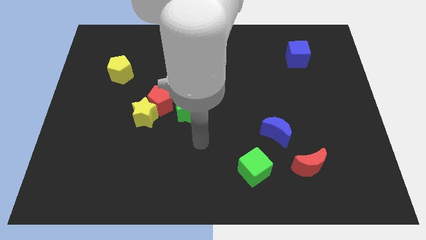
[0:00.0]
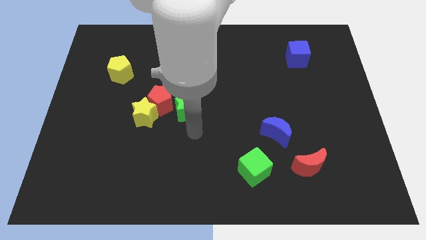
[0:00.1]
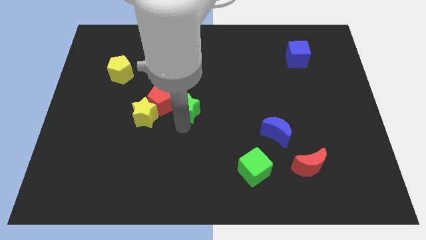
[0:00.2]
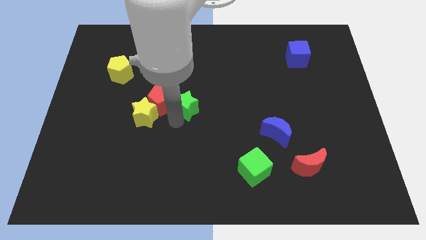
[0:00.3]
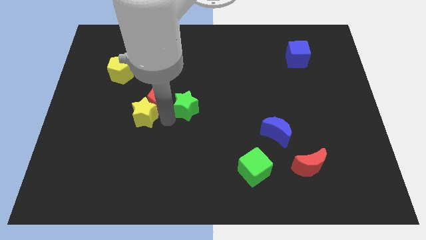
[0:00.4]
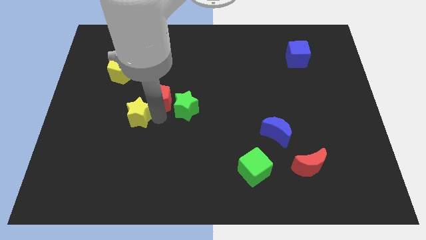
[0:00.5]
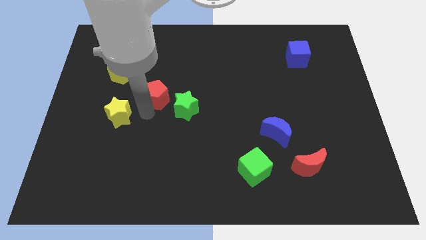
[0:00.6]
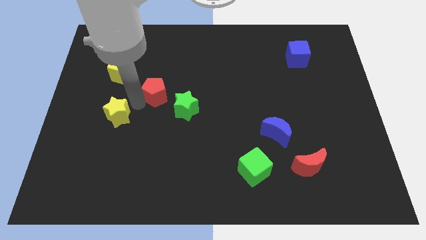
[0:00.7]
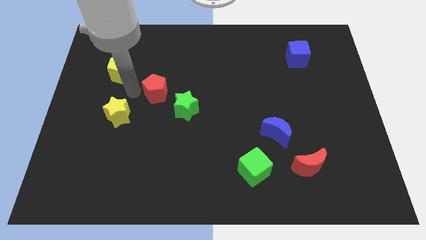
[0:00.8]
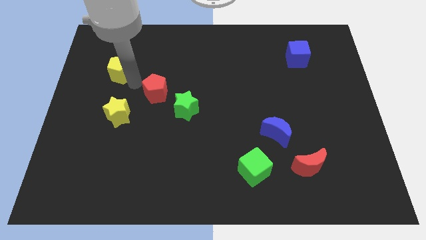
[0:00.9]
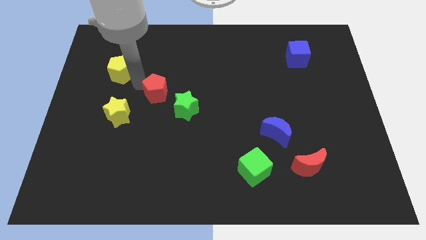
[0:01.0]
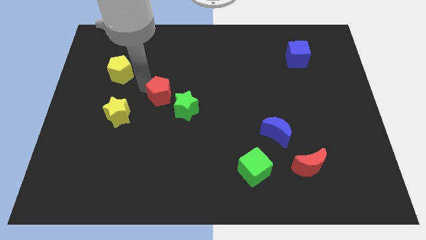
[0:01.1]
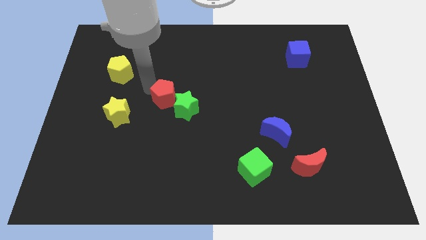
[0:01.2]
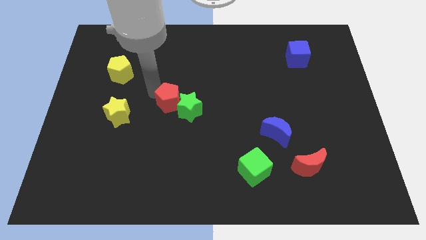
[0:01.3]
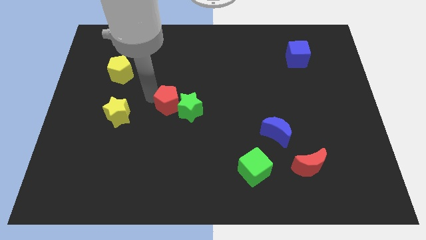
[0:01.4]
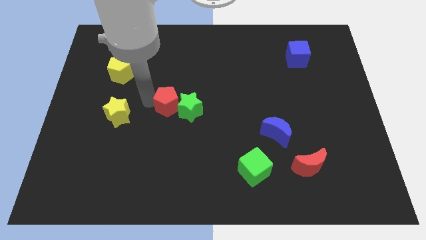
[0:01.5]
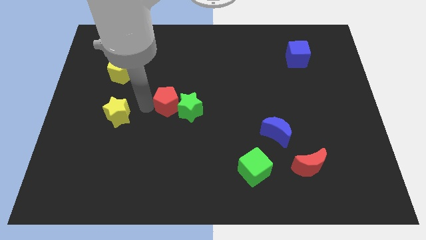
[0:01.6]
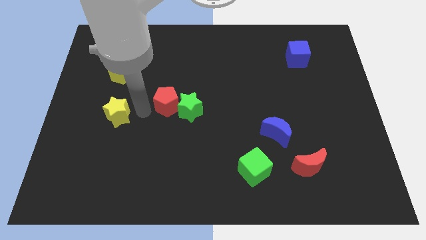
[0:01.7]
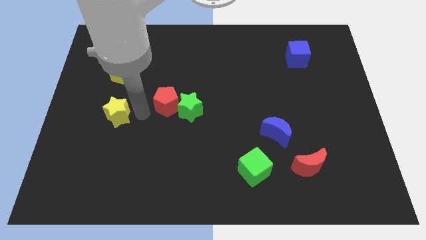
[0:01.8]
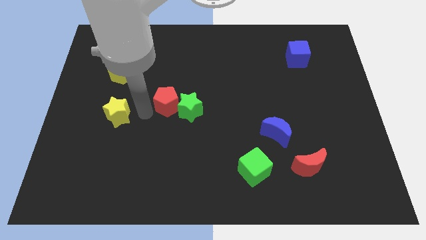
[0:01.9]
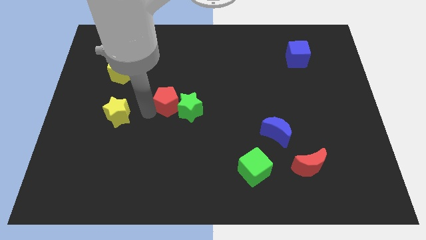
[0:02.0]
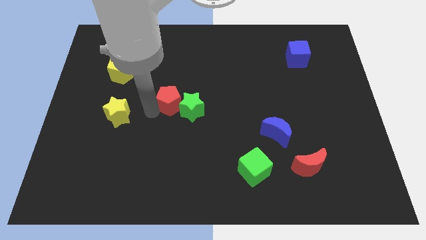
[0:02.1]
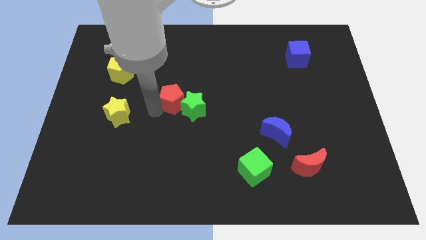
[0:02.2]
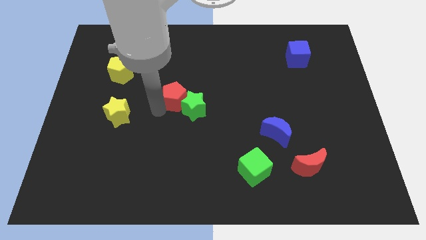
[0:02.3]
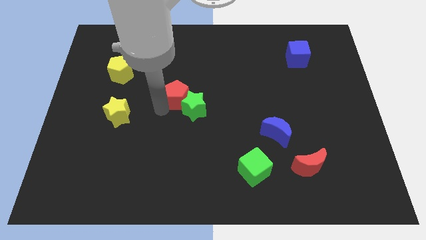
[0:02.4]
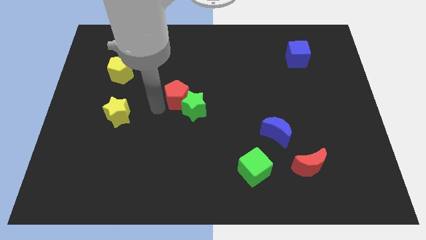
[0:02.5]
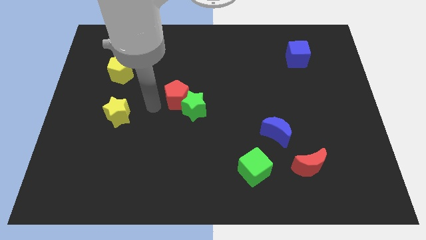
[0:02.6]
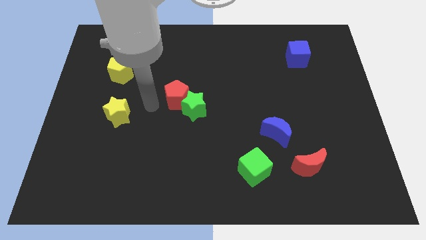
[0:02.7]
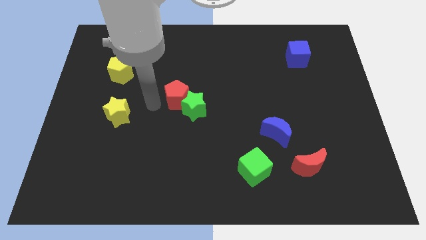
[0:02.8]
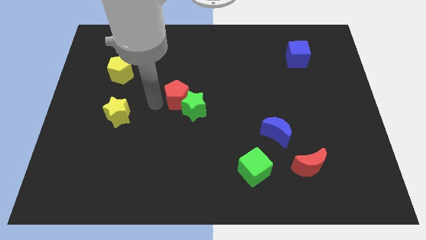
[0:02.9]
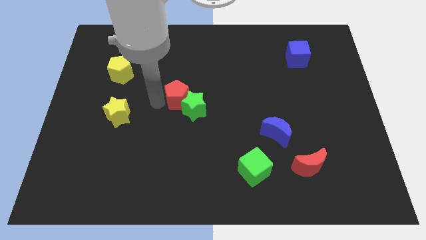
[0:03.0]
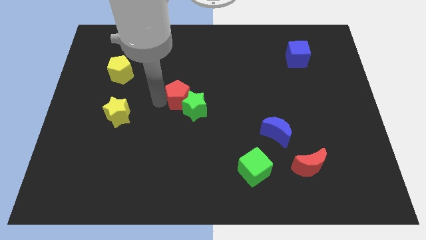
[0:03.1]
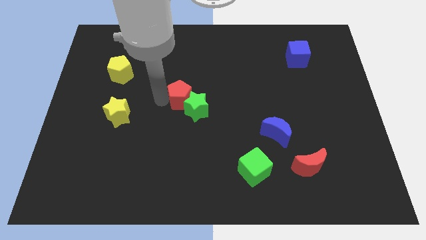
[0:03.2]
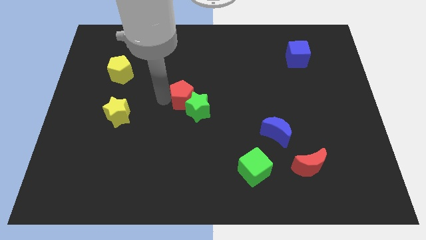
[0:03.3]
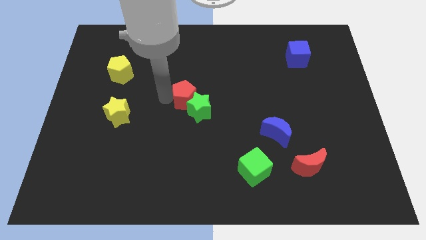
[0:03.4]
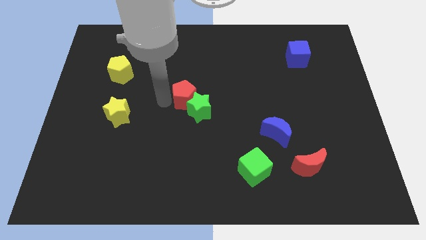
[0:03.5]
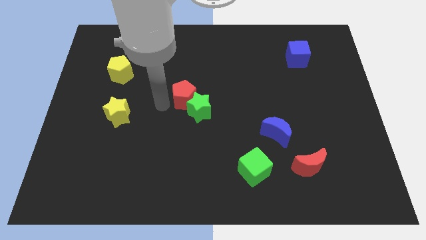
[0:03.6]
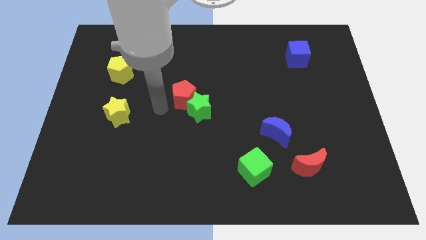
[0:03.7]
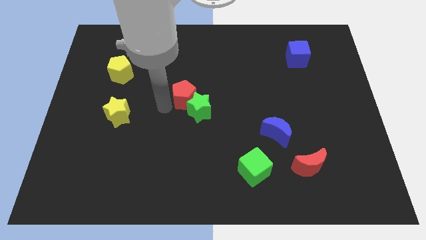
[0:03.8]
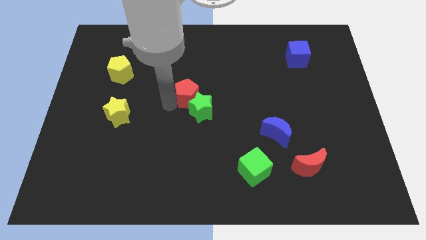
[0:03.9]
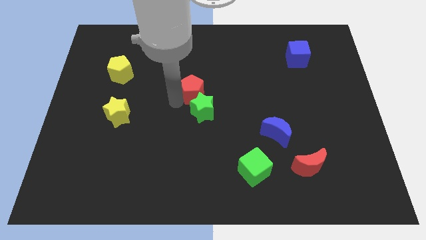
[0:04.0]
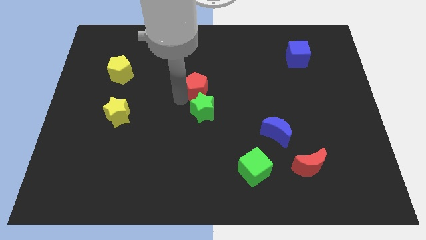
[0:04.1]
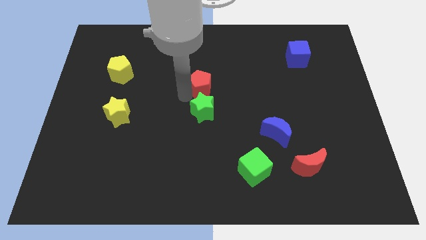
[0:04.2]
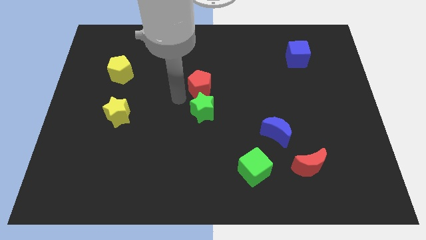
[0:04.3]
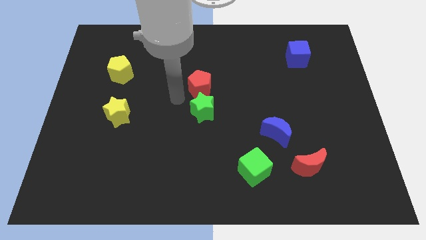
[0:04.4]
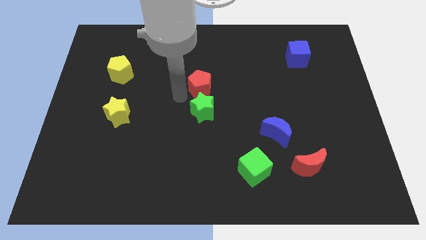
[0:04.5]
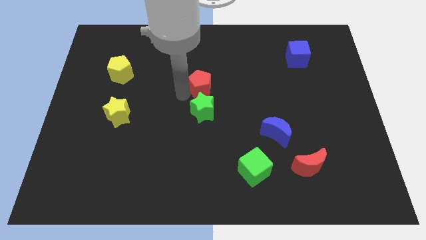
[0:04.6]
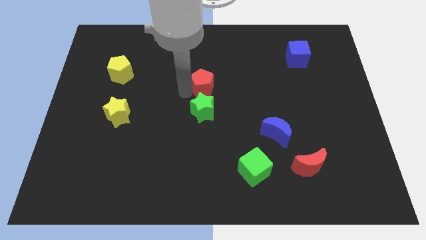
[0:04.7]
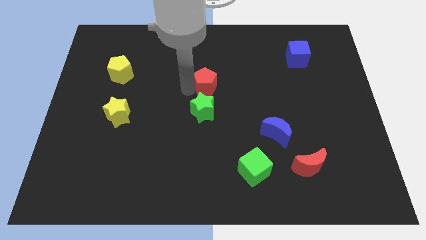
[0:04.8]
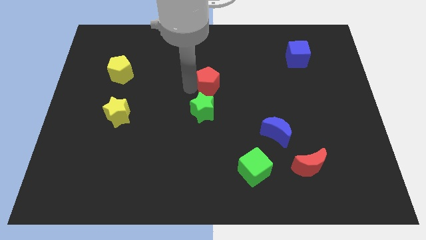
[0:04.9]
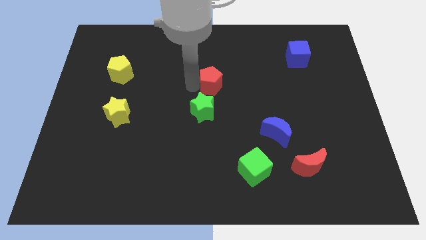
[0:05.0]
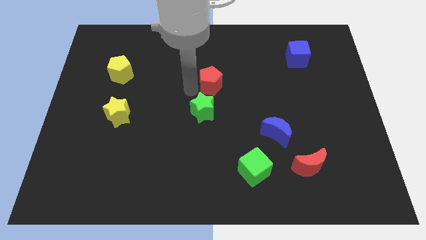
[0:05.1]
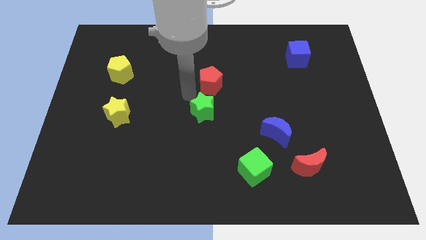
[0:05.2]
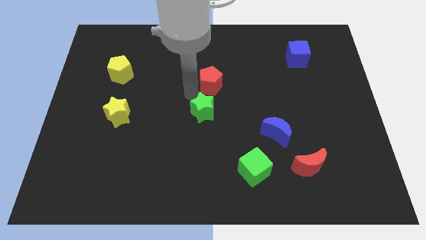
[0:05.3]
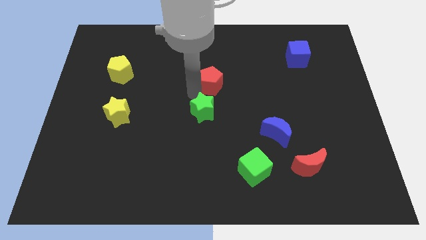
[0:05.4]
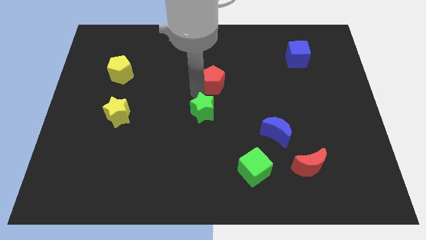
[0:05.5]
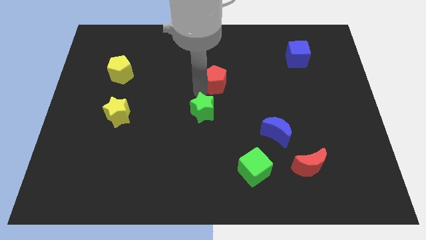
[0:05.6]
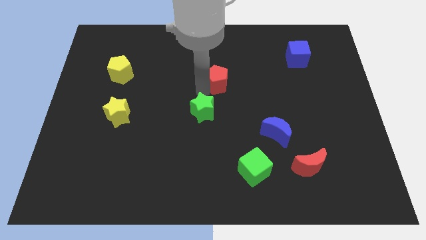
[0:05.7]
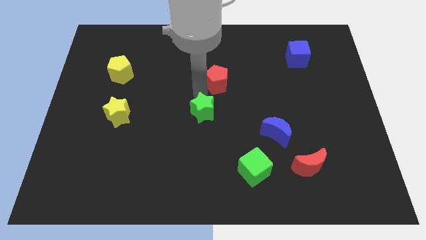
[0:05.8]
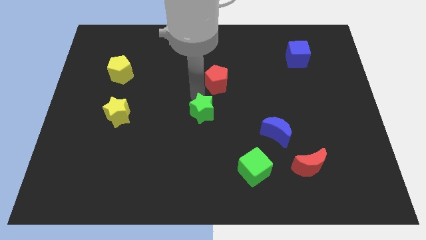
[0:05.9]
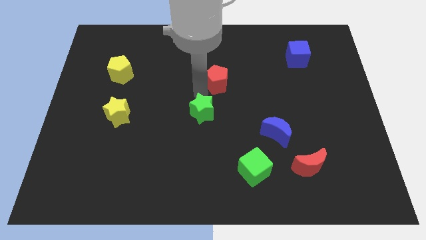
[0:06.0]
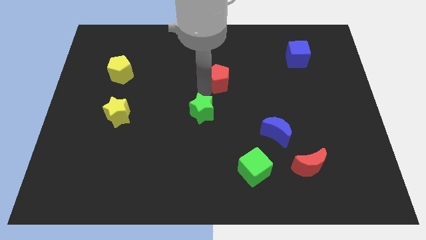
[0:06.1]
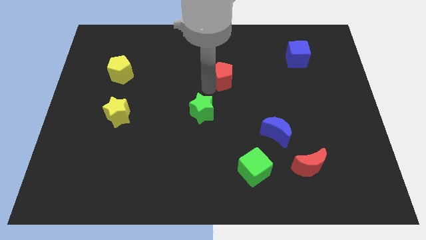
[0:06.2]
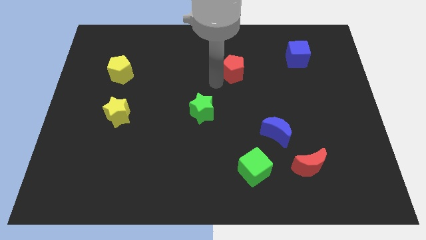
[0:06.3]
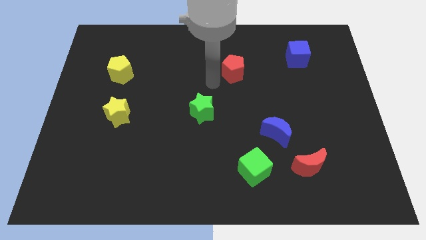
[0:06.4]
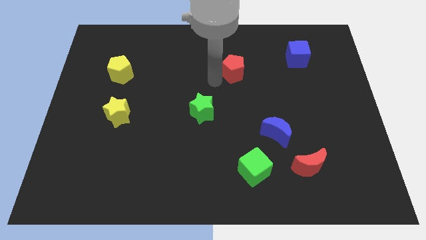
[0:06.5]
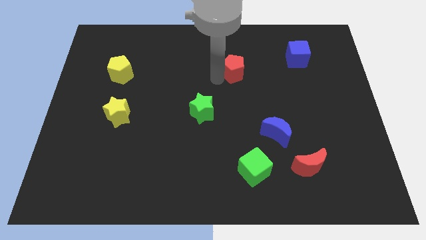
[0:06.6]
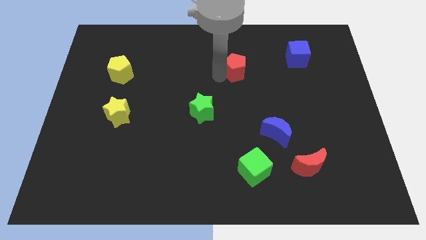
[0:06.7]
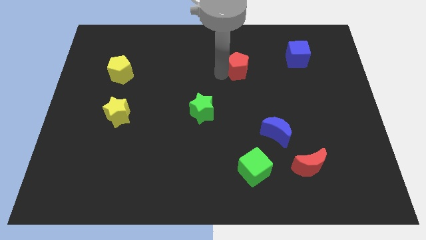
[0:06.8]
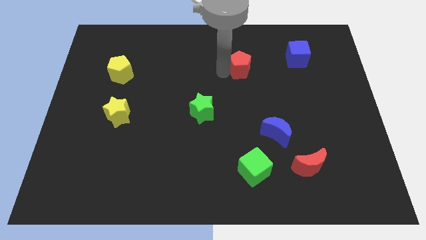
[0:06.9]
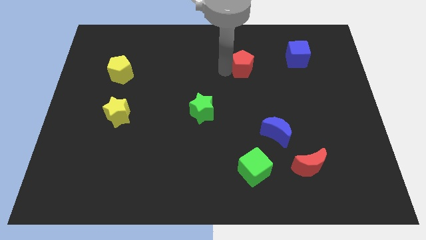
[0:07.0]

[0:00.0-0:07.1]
move the red pentagon to the left side of the blue cube
